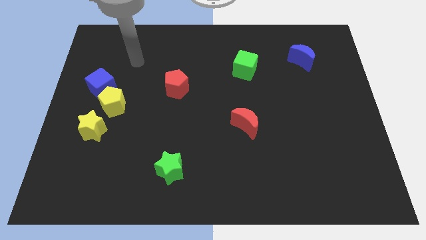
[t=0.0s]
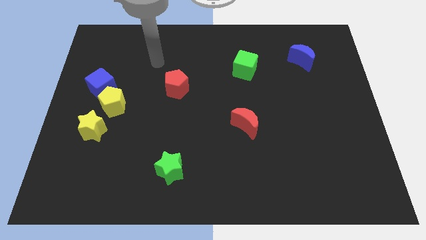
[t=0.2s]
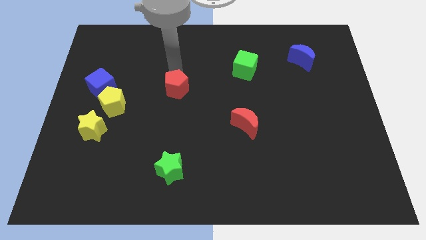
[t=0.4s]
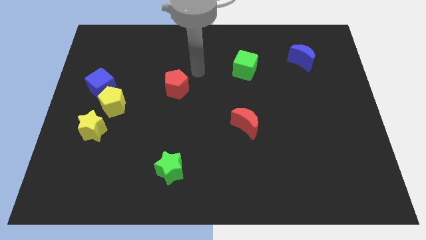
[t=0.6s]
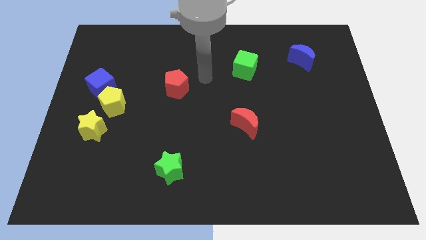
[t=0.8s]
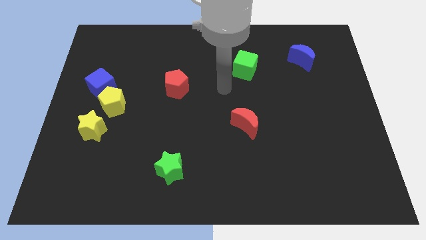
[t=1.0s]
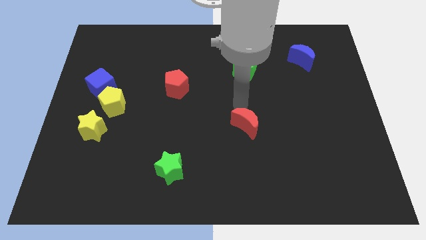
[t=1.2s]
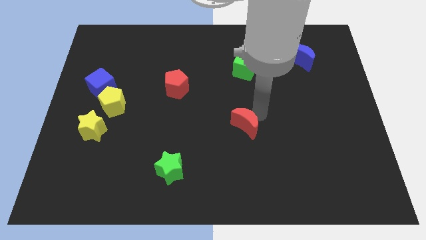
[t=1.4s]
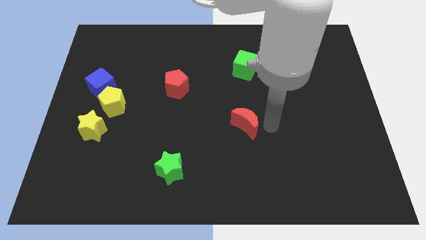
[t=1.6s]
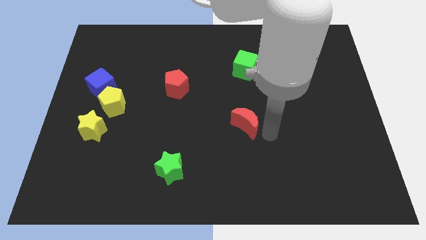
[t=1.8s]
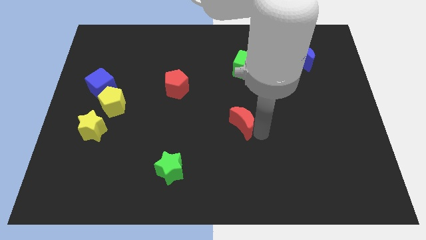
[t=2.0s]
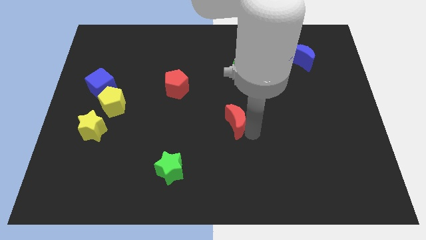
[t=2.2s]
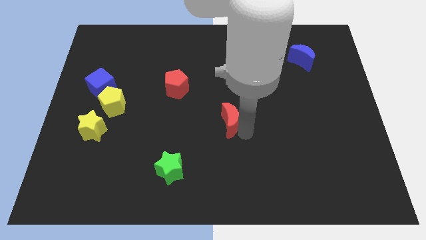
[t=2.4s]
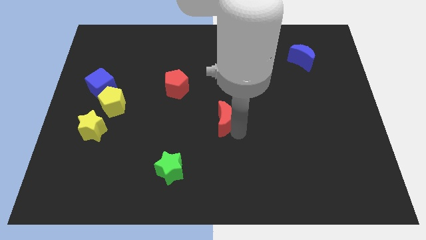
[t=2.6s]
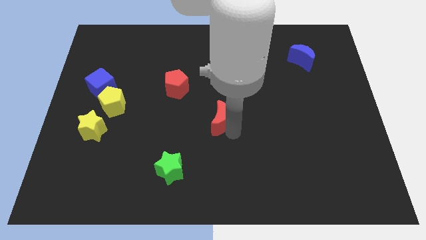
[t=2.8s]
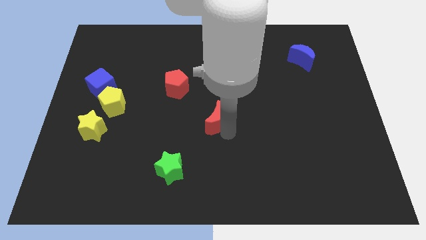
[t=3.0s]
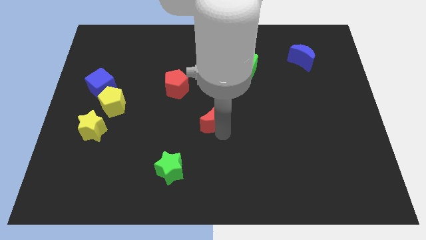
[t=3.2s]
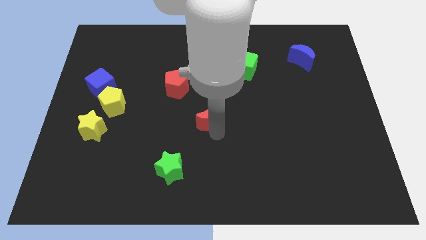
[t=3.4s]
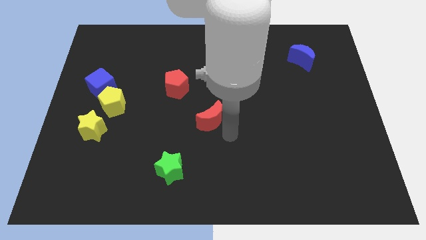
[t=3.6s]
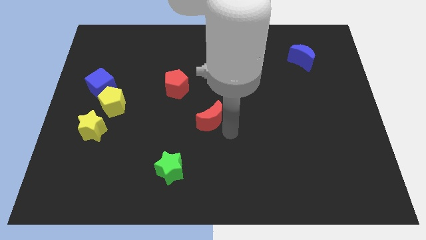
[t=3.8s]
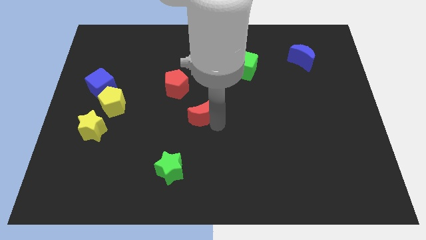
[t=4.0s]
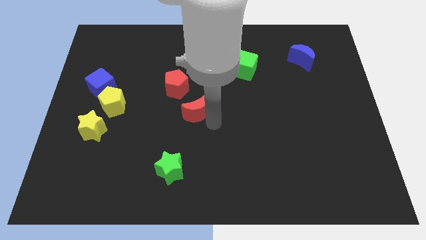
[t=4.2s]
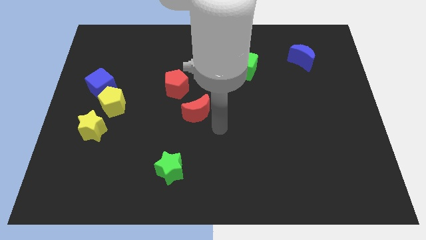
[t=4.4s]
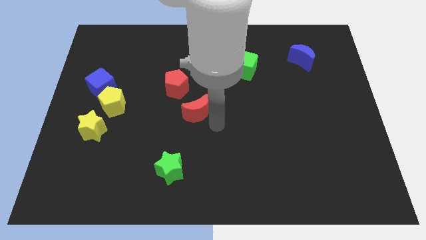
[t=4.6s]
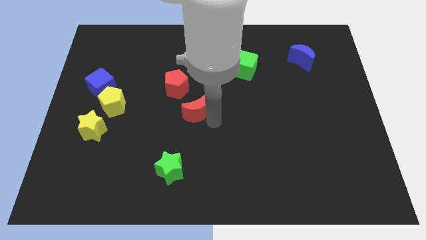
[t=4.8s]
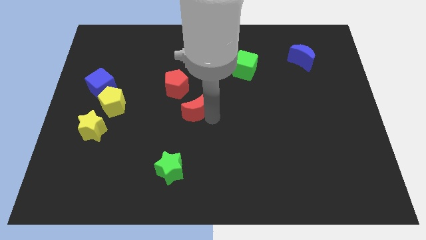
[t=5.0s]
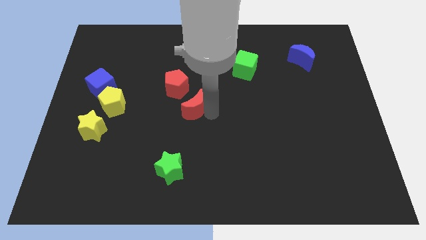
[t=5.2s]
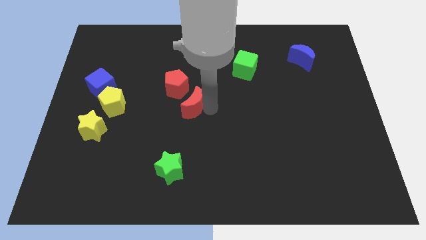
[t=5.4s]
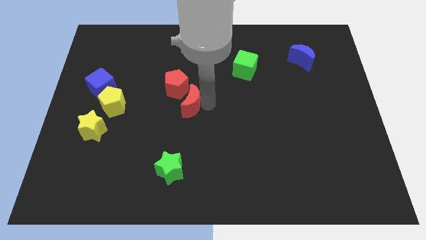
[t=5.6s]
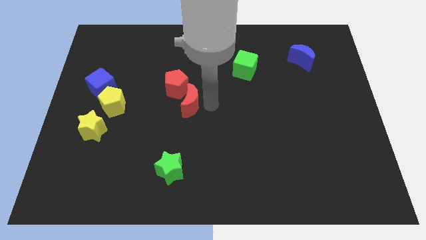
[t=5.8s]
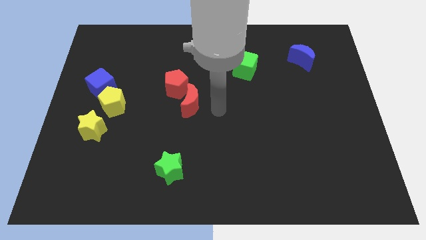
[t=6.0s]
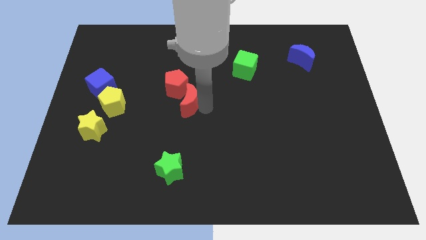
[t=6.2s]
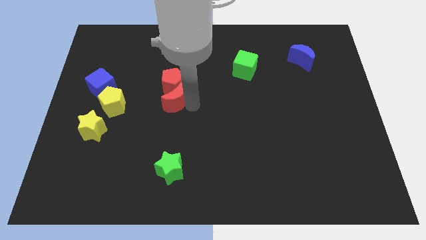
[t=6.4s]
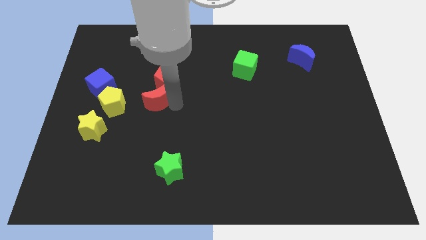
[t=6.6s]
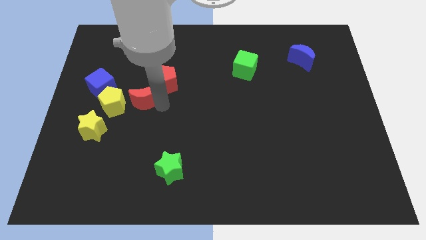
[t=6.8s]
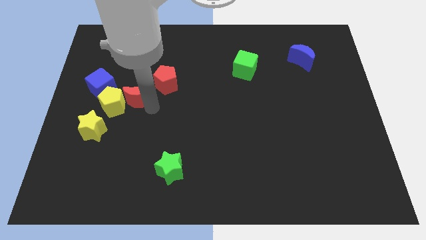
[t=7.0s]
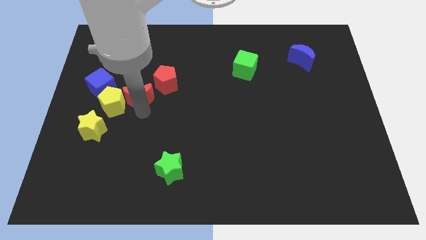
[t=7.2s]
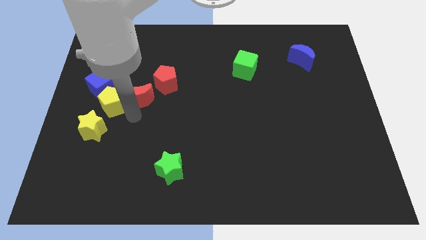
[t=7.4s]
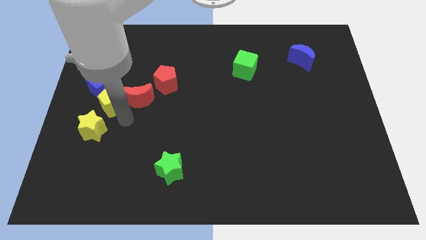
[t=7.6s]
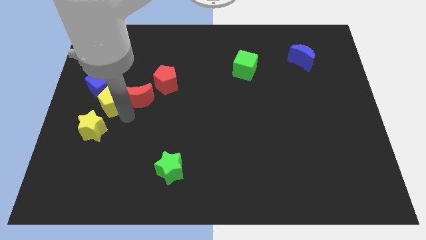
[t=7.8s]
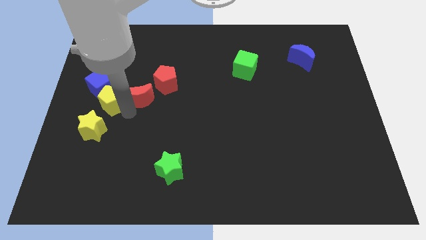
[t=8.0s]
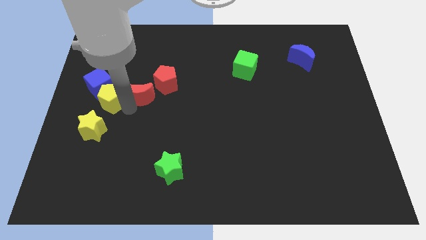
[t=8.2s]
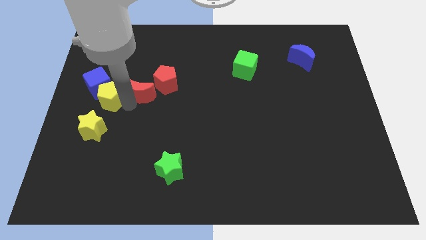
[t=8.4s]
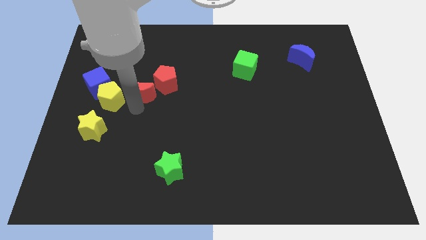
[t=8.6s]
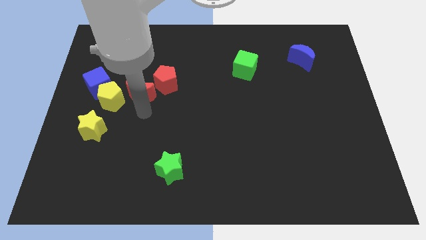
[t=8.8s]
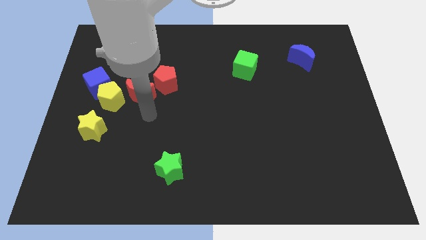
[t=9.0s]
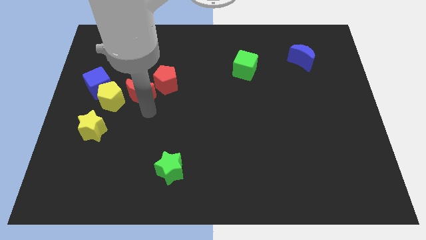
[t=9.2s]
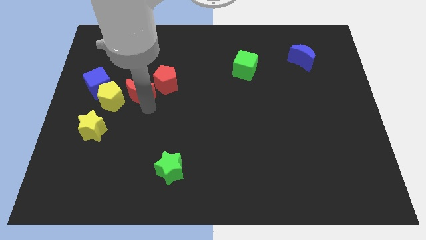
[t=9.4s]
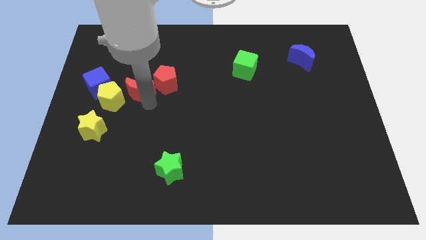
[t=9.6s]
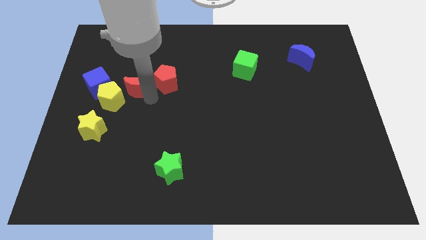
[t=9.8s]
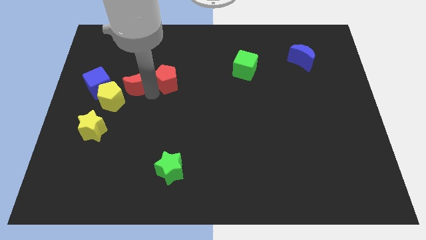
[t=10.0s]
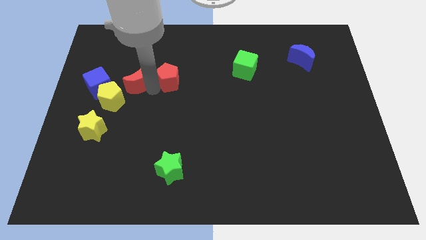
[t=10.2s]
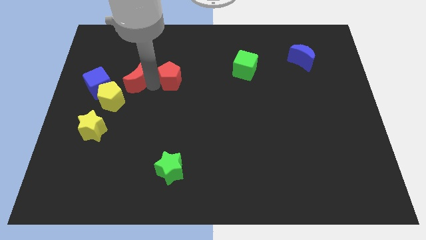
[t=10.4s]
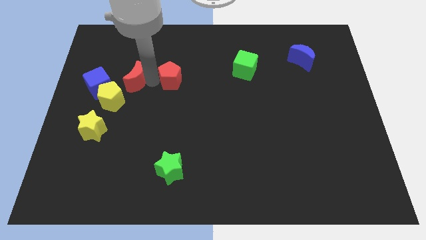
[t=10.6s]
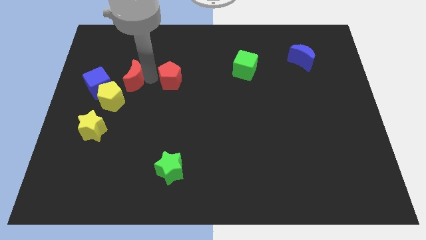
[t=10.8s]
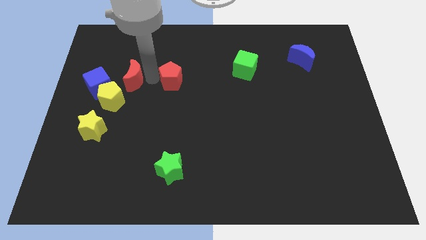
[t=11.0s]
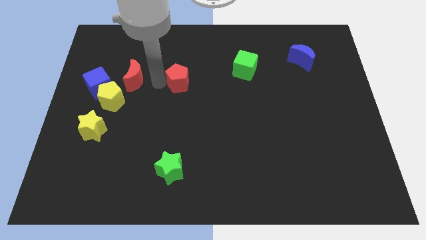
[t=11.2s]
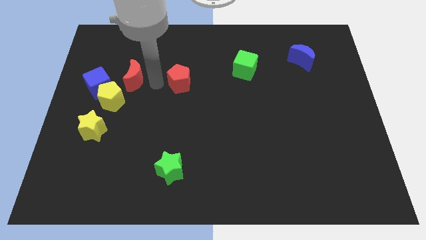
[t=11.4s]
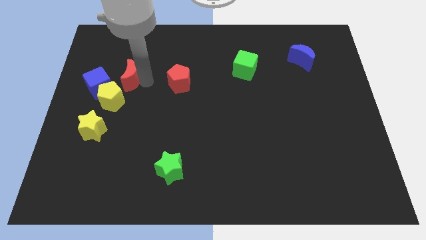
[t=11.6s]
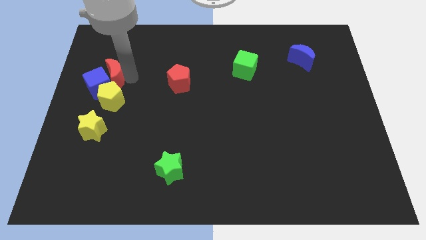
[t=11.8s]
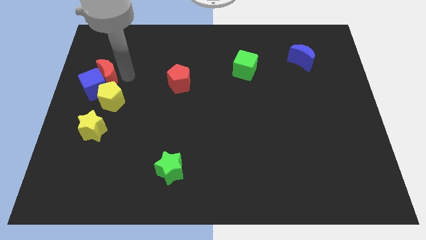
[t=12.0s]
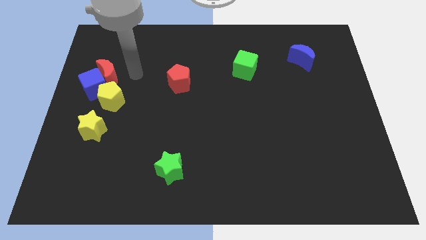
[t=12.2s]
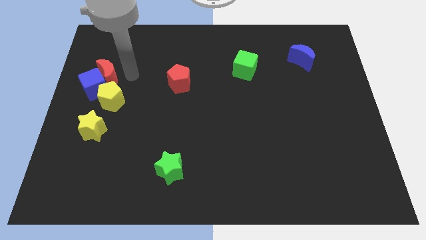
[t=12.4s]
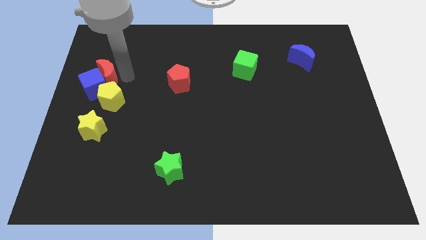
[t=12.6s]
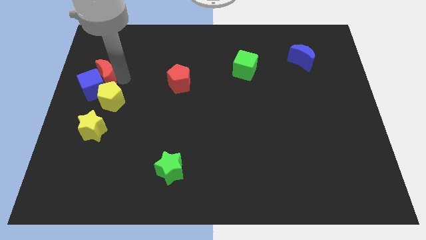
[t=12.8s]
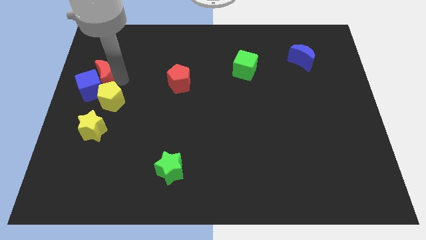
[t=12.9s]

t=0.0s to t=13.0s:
put the red moon to the left side of the board
